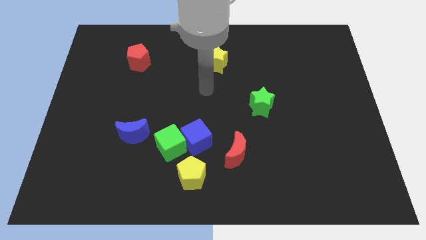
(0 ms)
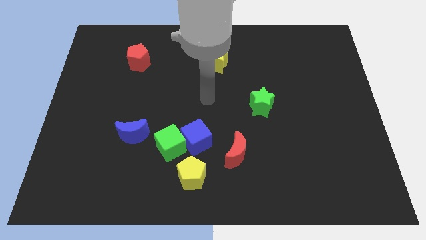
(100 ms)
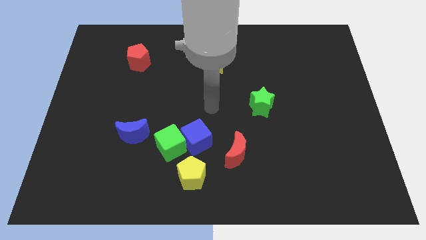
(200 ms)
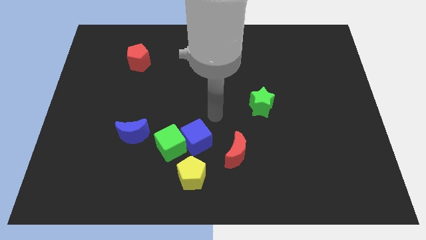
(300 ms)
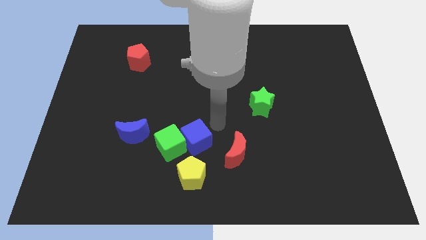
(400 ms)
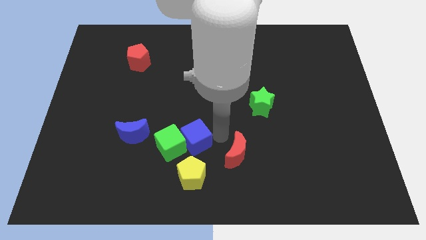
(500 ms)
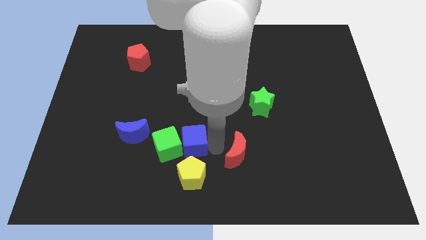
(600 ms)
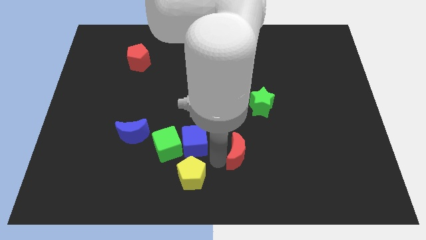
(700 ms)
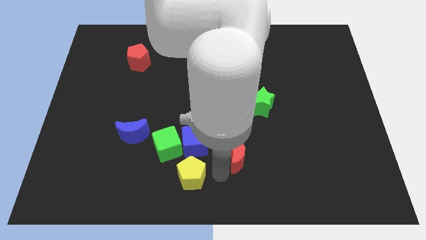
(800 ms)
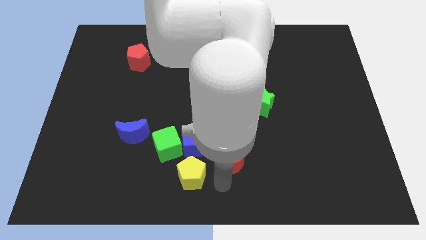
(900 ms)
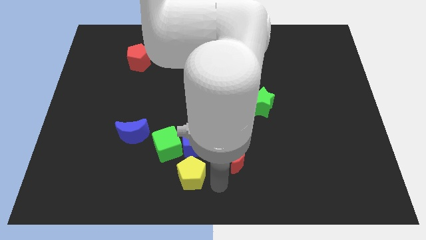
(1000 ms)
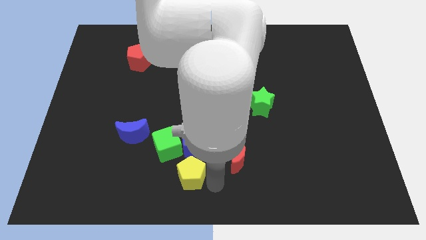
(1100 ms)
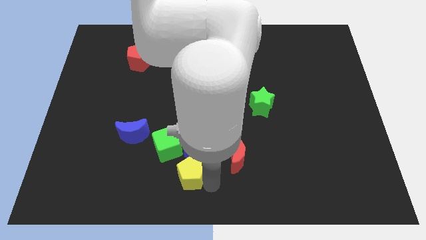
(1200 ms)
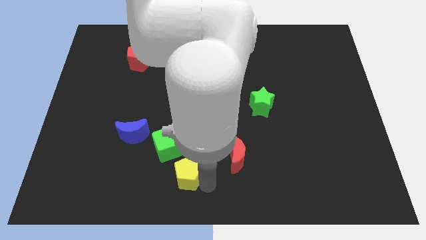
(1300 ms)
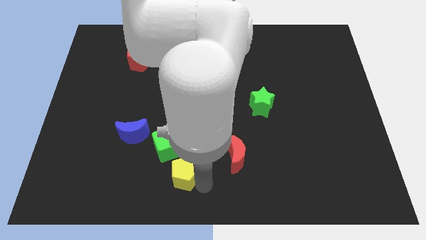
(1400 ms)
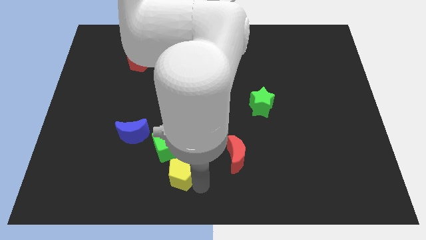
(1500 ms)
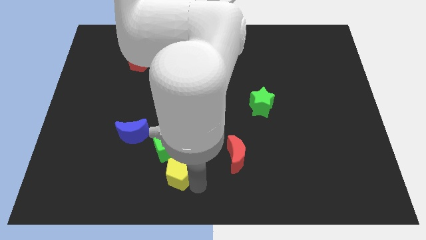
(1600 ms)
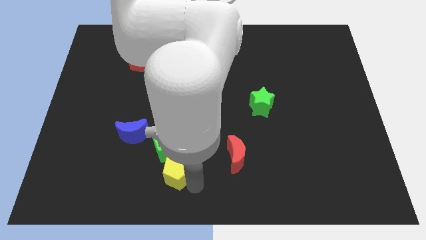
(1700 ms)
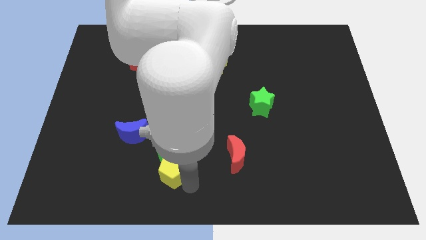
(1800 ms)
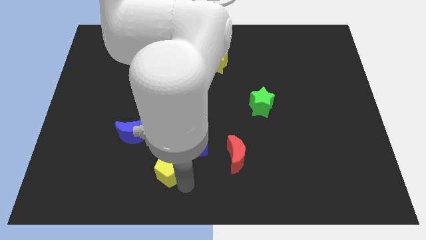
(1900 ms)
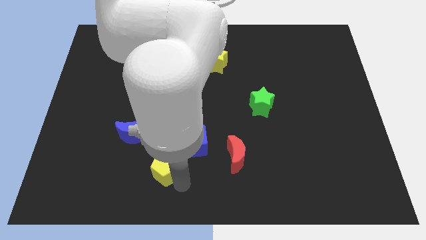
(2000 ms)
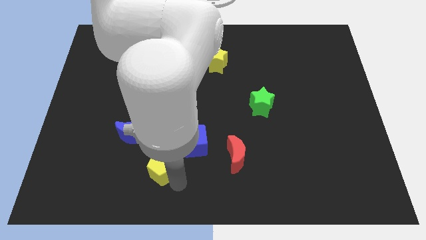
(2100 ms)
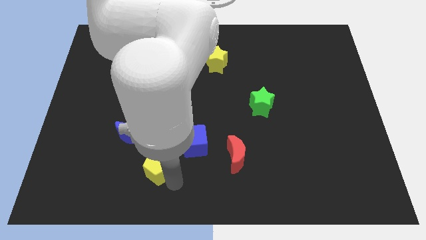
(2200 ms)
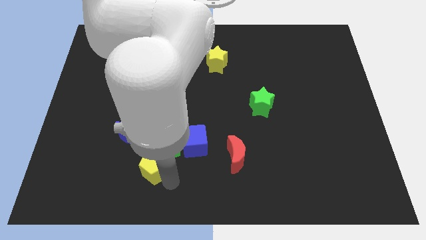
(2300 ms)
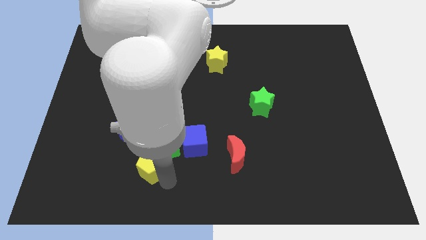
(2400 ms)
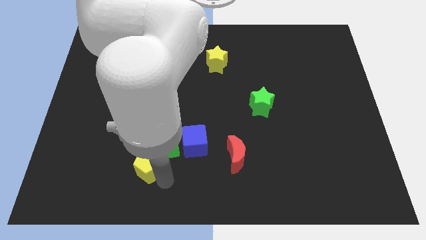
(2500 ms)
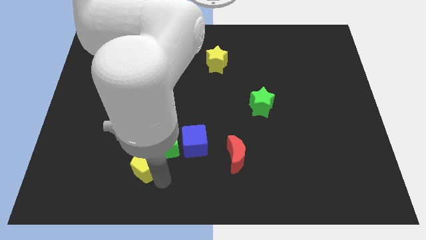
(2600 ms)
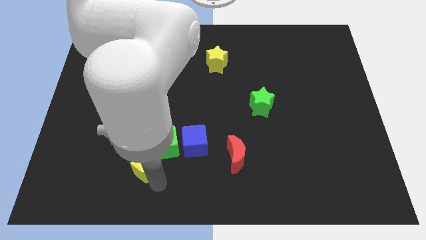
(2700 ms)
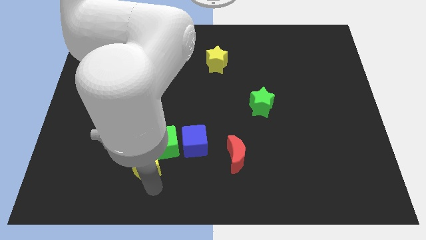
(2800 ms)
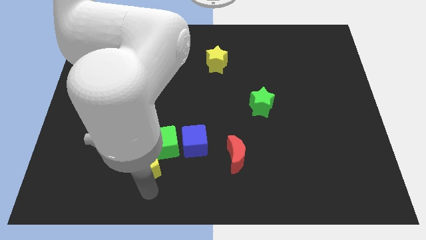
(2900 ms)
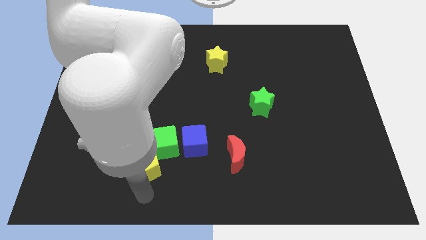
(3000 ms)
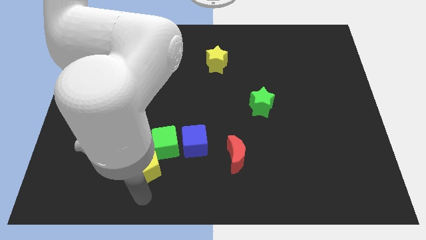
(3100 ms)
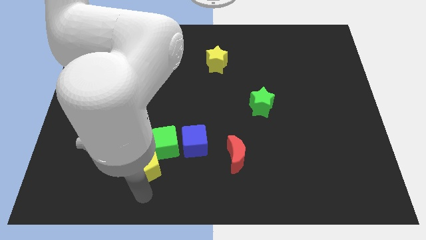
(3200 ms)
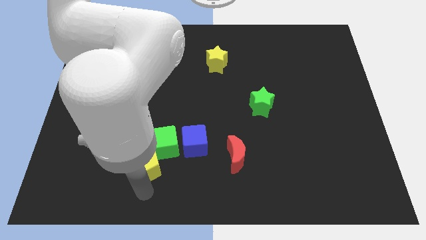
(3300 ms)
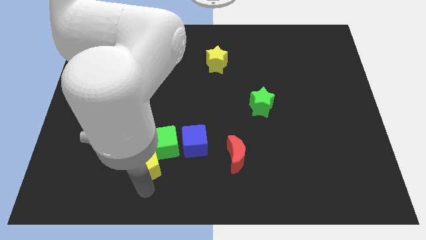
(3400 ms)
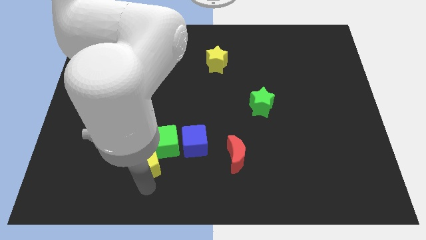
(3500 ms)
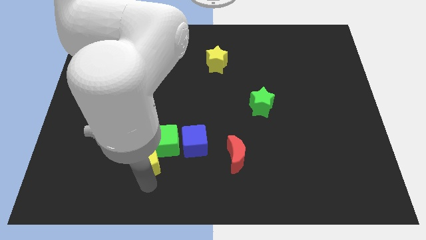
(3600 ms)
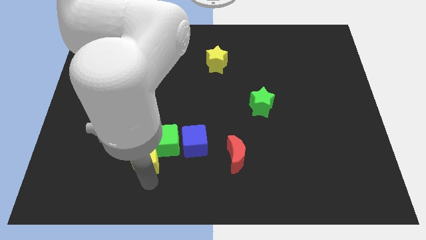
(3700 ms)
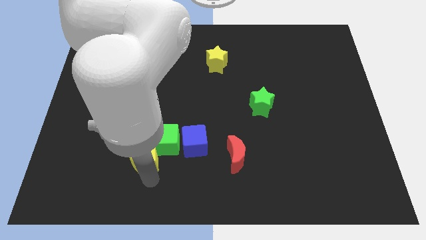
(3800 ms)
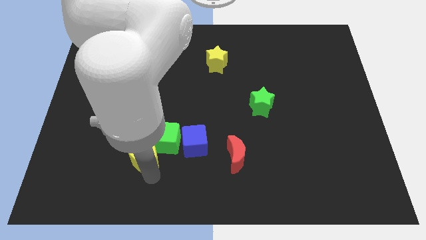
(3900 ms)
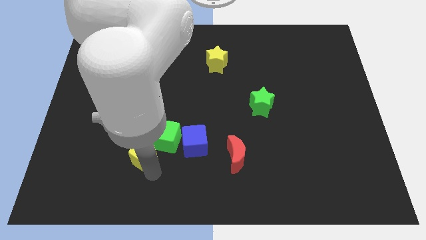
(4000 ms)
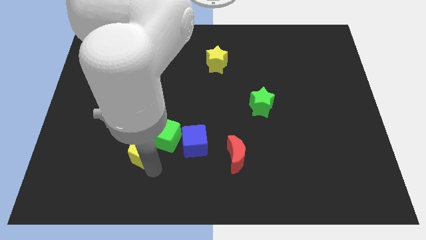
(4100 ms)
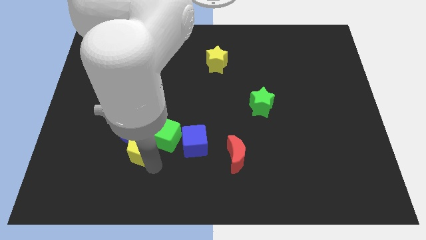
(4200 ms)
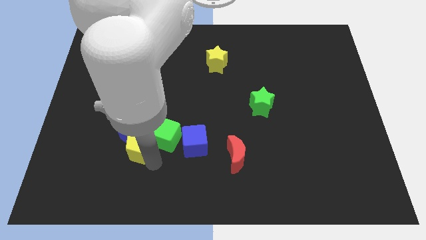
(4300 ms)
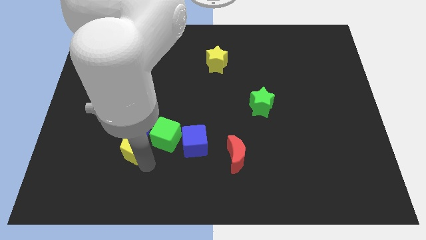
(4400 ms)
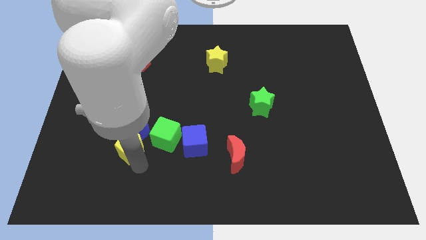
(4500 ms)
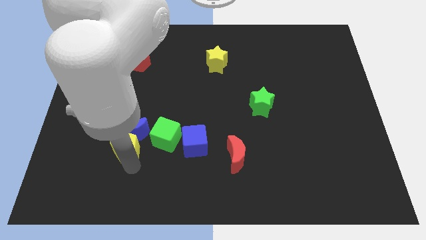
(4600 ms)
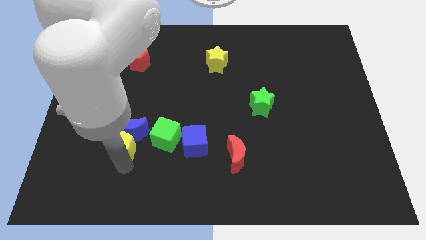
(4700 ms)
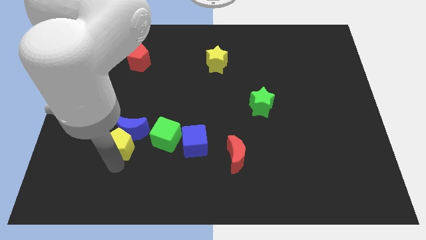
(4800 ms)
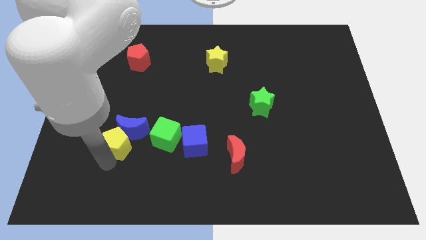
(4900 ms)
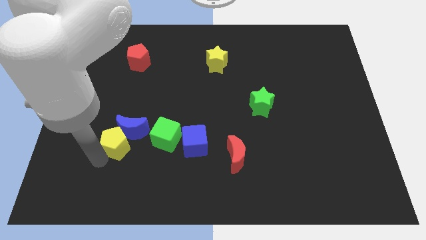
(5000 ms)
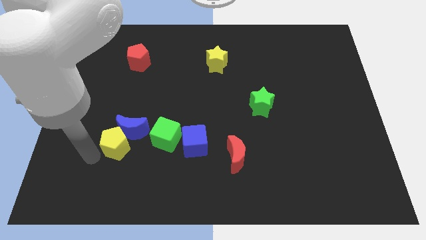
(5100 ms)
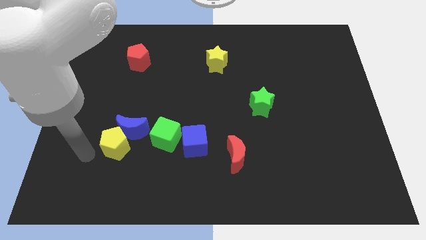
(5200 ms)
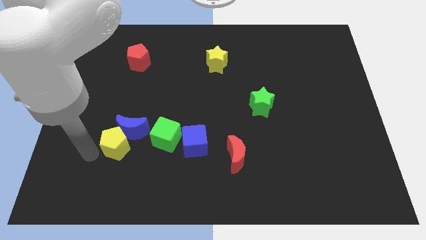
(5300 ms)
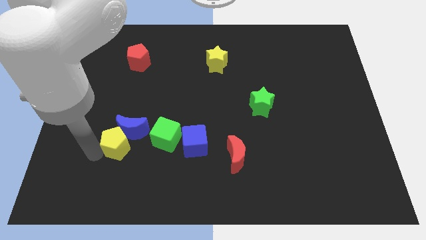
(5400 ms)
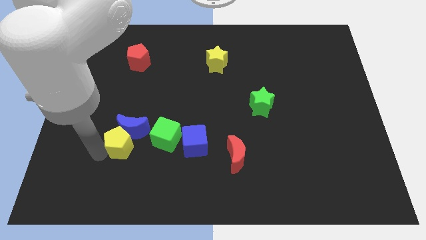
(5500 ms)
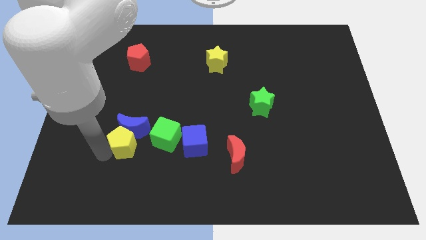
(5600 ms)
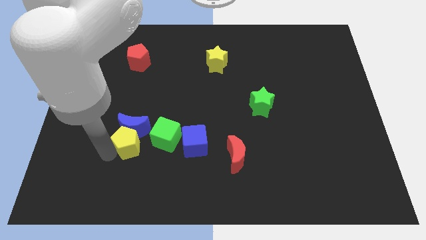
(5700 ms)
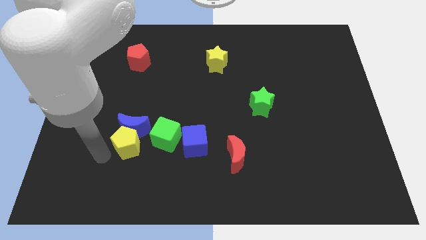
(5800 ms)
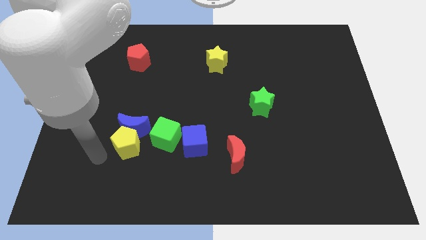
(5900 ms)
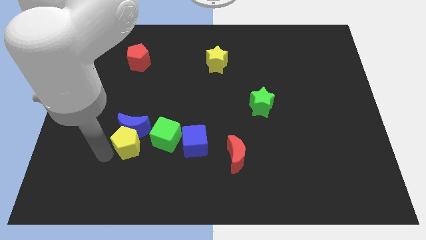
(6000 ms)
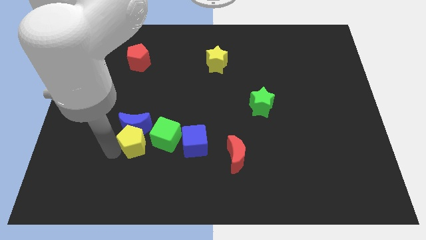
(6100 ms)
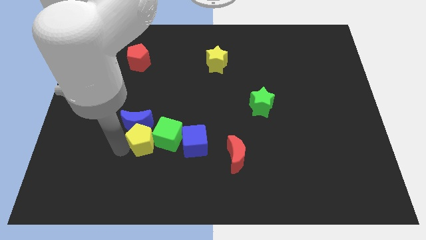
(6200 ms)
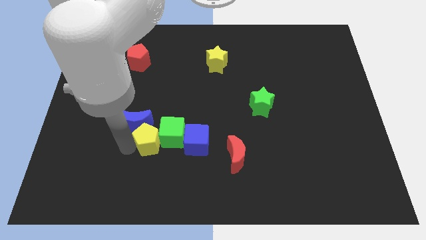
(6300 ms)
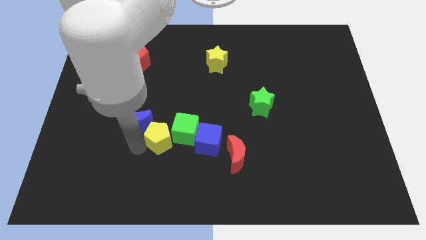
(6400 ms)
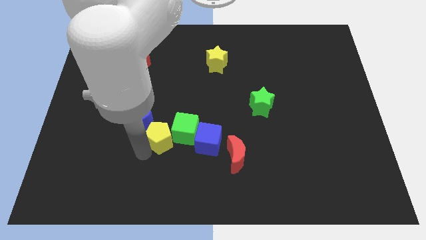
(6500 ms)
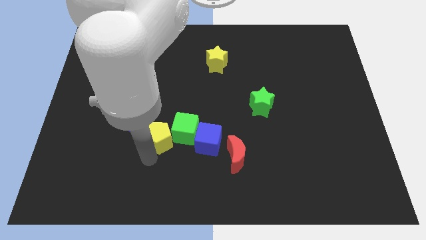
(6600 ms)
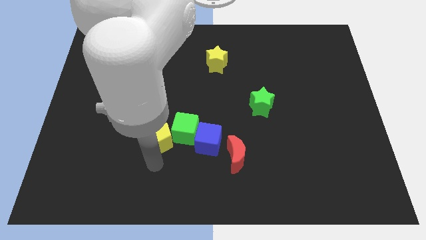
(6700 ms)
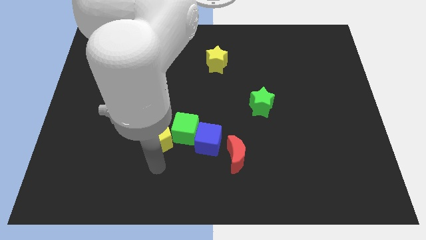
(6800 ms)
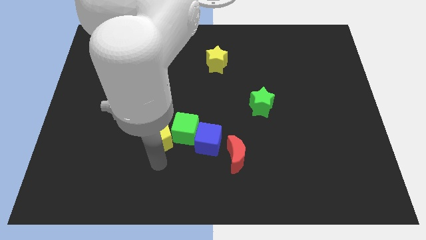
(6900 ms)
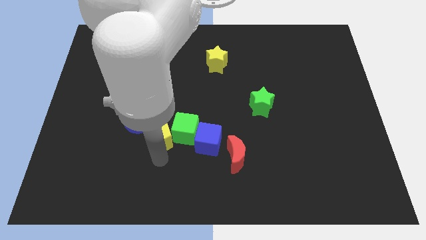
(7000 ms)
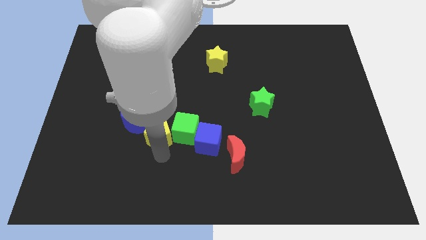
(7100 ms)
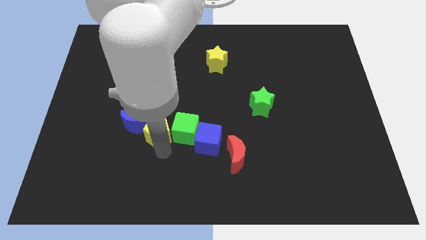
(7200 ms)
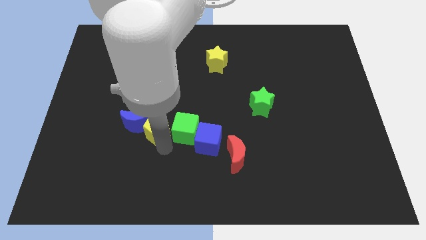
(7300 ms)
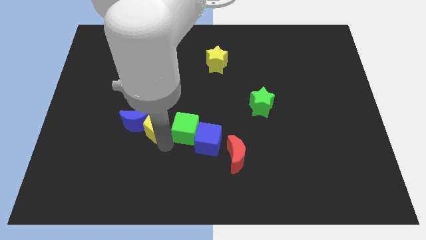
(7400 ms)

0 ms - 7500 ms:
move the yellow pentagon to the top right side of the blue moon
